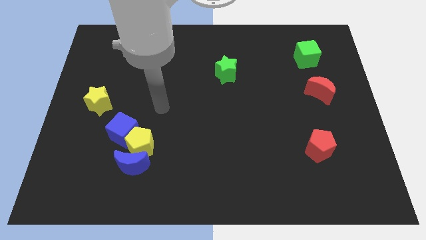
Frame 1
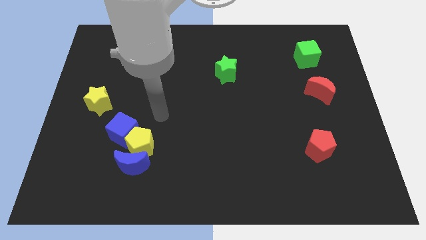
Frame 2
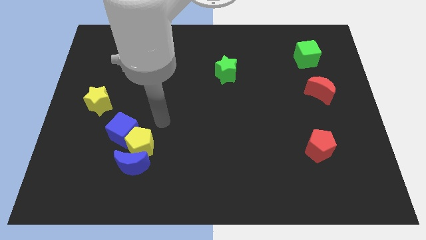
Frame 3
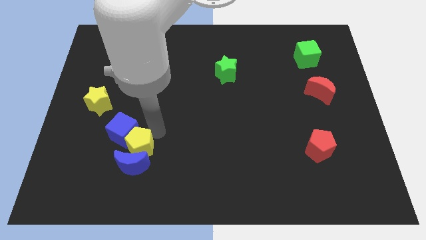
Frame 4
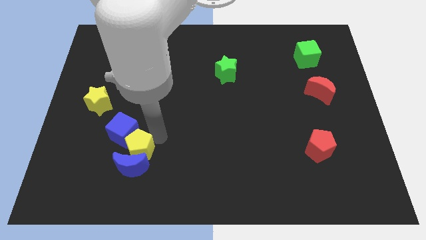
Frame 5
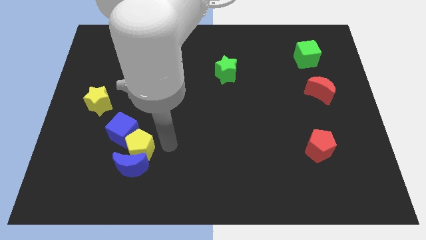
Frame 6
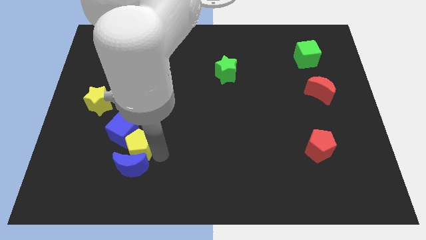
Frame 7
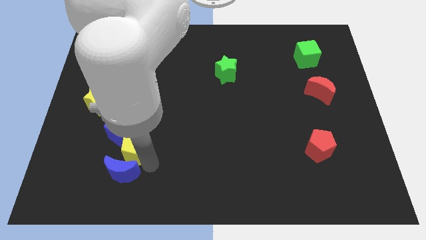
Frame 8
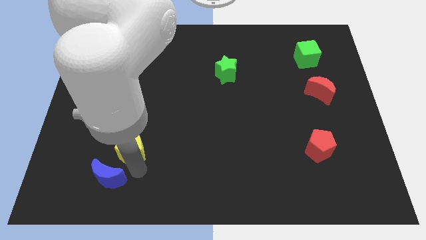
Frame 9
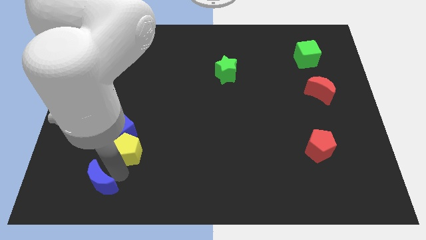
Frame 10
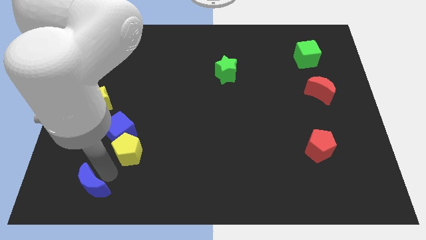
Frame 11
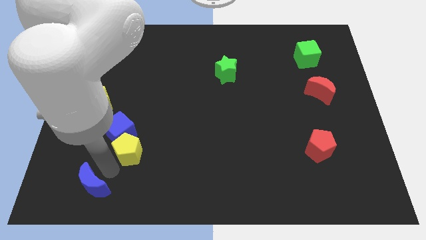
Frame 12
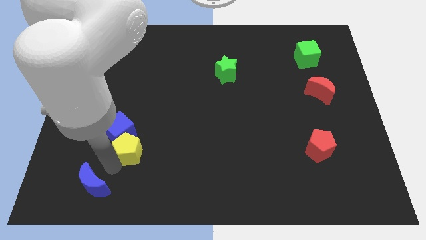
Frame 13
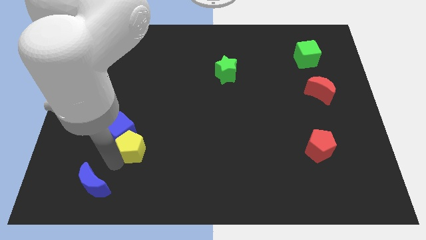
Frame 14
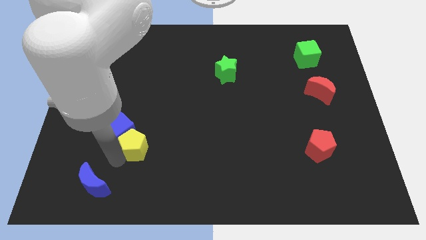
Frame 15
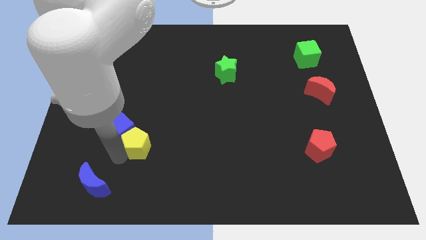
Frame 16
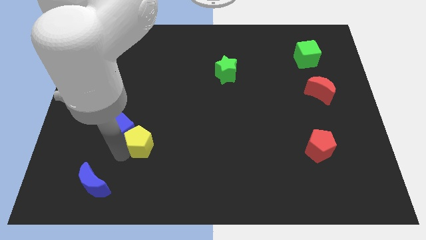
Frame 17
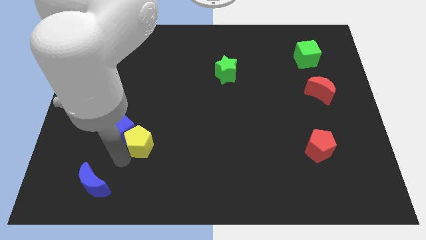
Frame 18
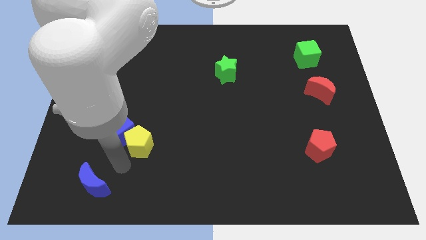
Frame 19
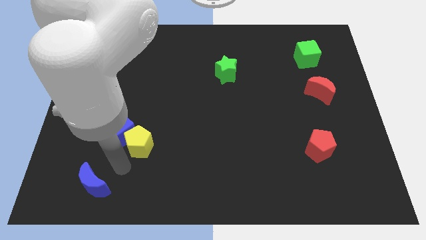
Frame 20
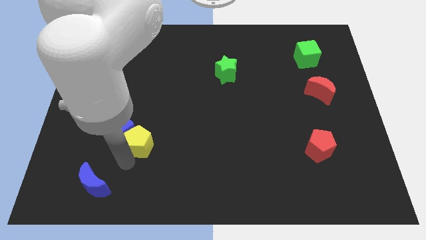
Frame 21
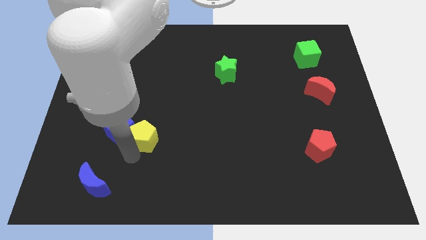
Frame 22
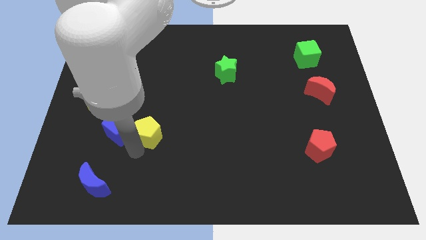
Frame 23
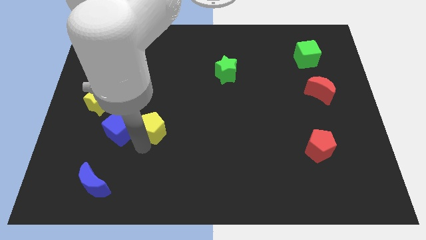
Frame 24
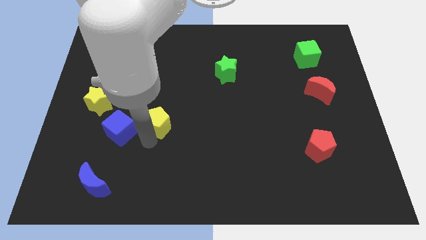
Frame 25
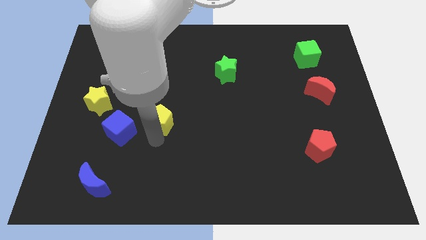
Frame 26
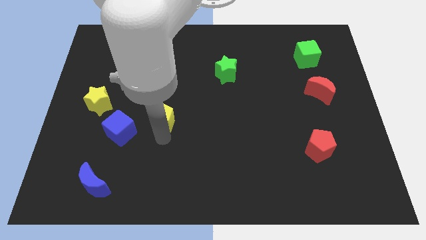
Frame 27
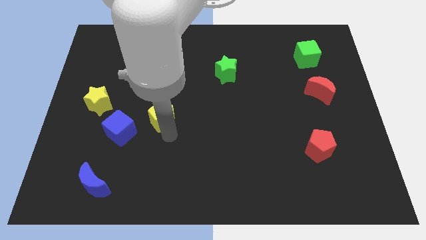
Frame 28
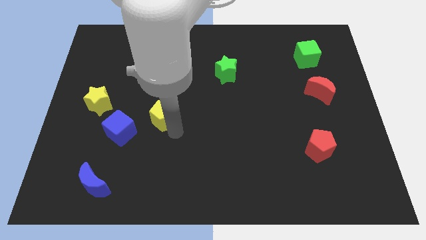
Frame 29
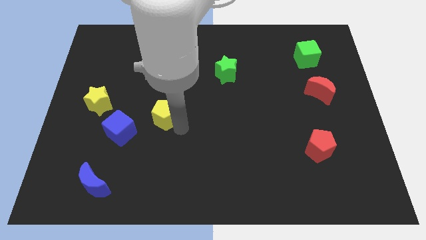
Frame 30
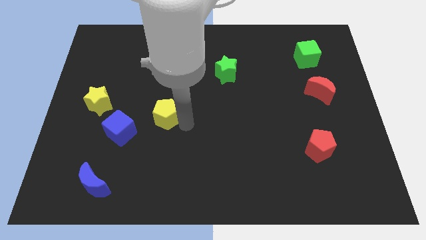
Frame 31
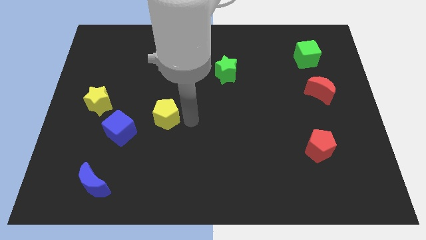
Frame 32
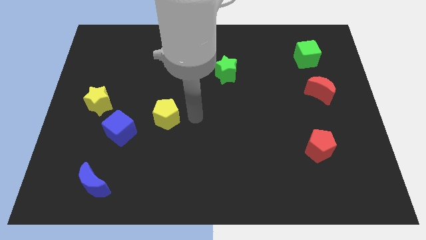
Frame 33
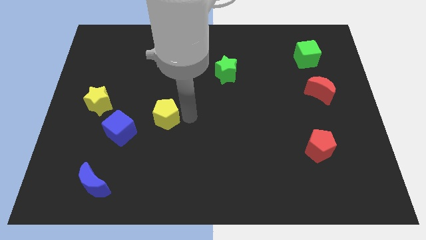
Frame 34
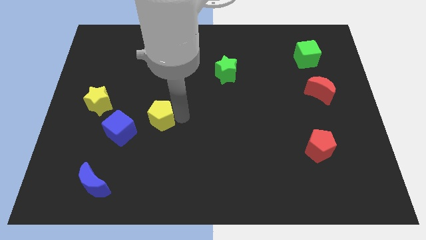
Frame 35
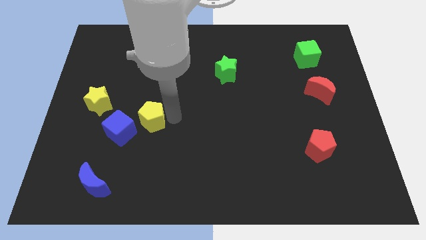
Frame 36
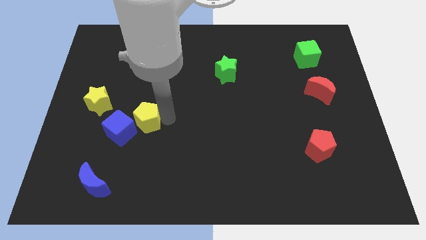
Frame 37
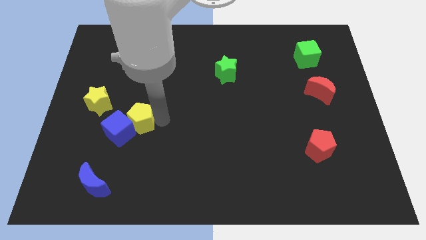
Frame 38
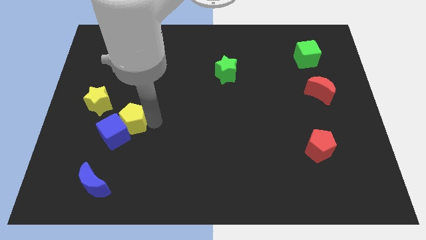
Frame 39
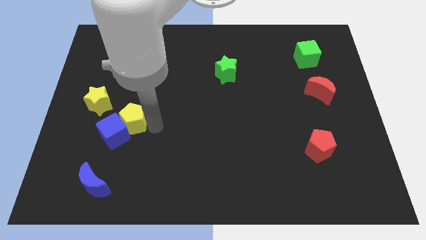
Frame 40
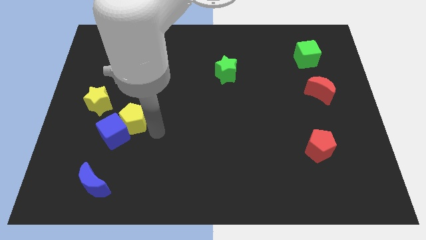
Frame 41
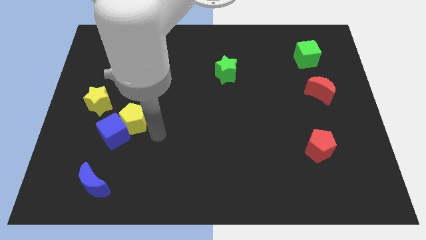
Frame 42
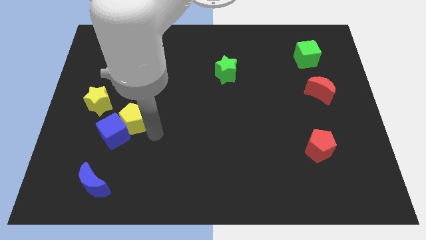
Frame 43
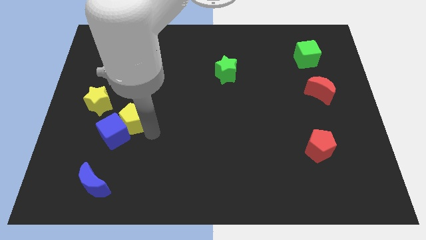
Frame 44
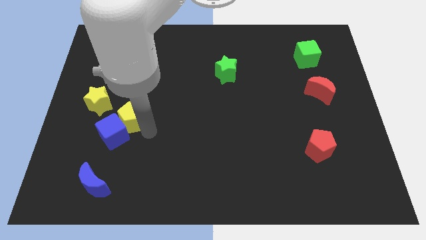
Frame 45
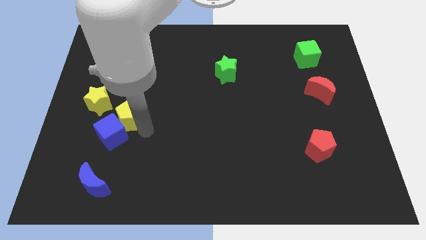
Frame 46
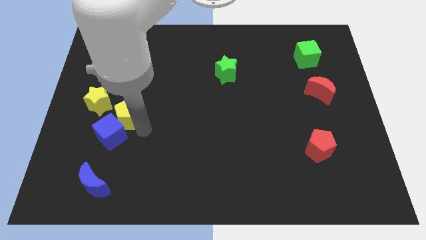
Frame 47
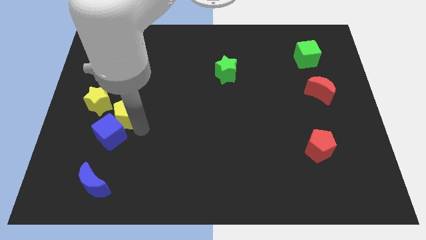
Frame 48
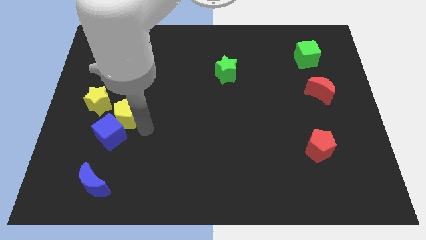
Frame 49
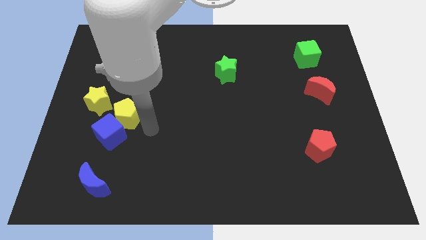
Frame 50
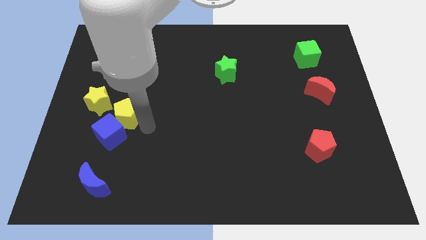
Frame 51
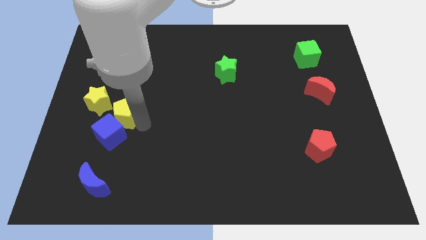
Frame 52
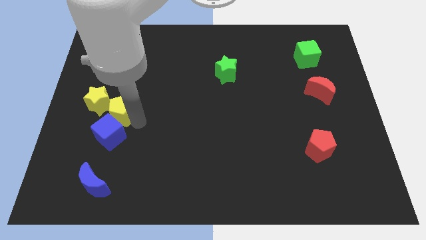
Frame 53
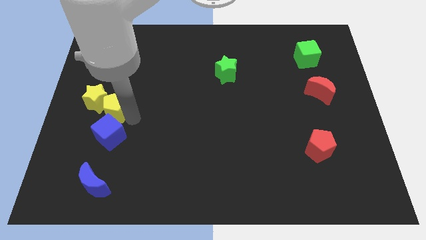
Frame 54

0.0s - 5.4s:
move the yellow pentagon towards the yellow star

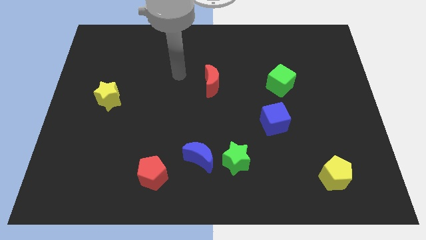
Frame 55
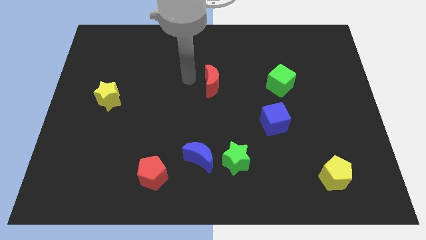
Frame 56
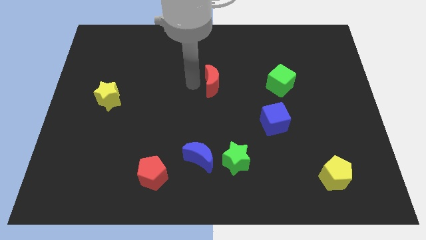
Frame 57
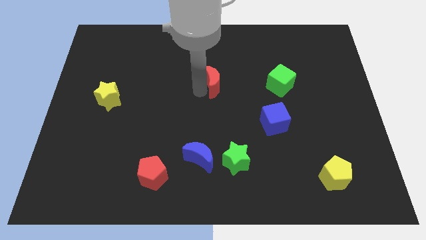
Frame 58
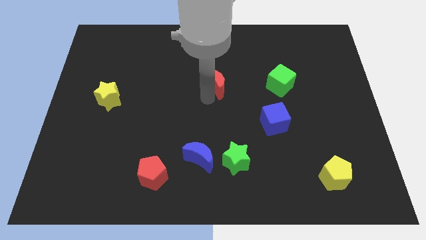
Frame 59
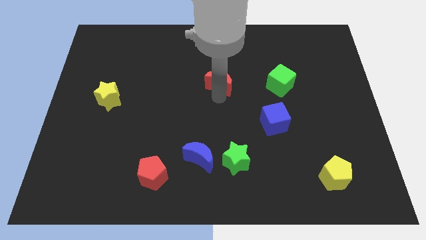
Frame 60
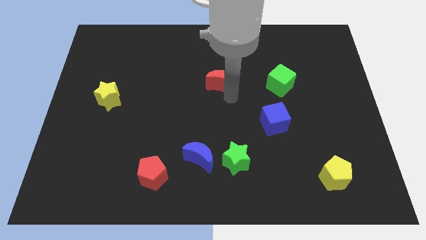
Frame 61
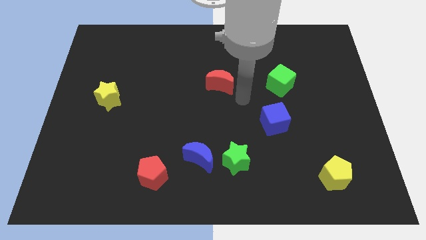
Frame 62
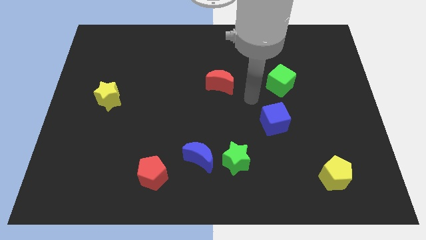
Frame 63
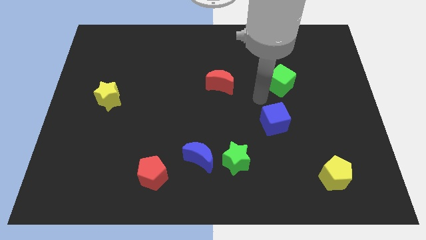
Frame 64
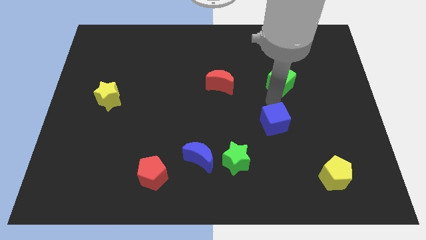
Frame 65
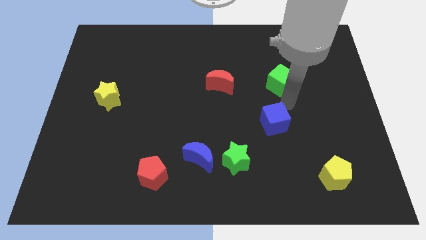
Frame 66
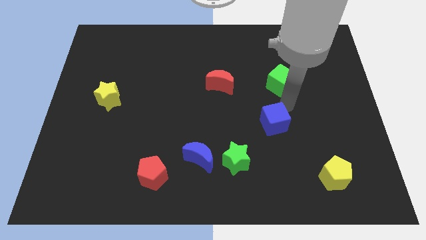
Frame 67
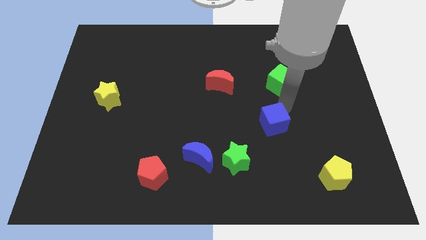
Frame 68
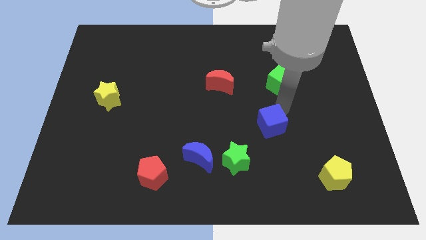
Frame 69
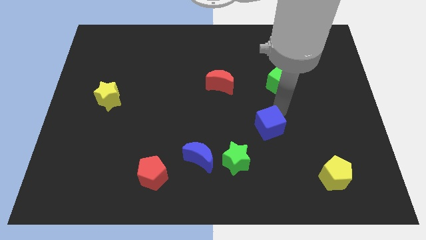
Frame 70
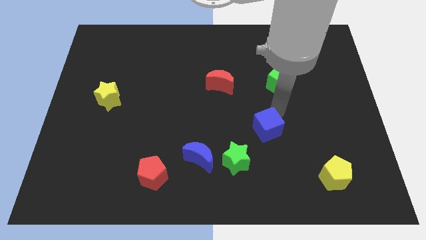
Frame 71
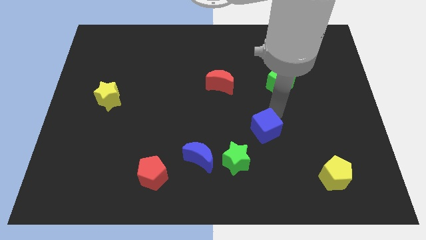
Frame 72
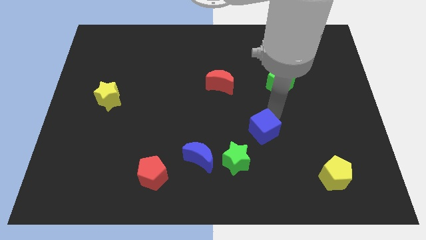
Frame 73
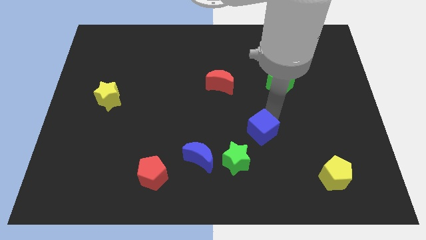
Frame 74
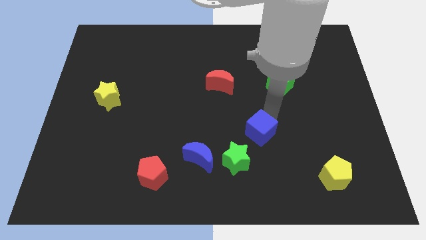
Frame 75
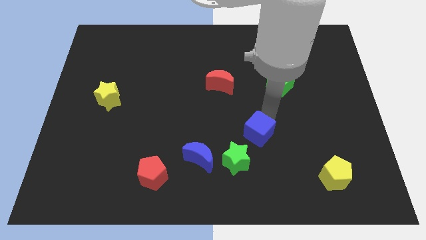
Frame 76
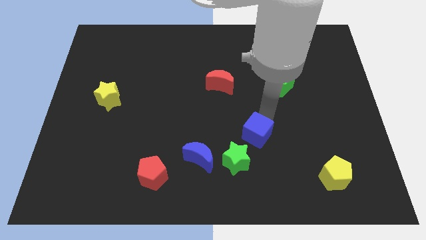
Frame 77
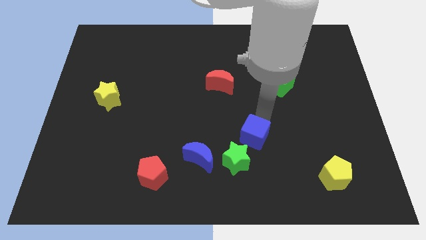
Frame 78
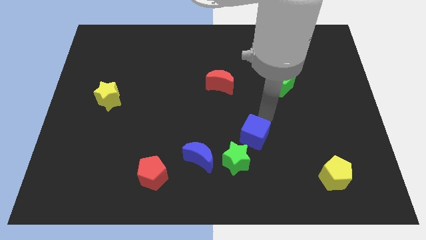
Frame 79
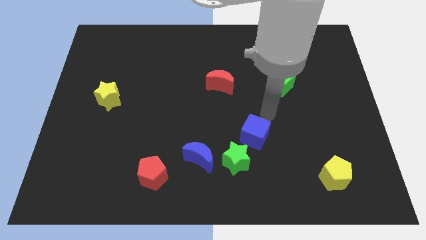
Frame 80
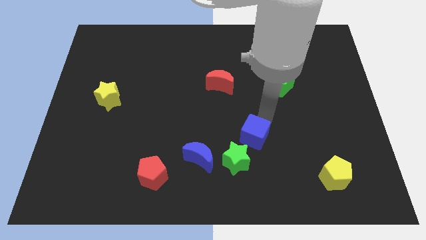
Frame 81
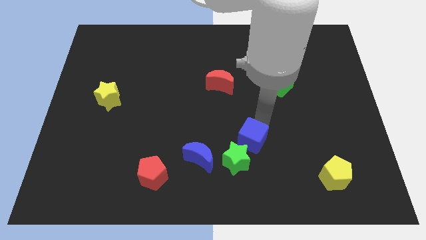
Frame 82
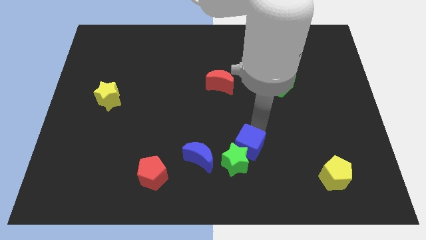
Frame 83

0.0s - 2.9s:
move the blue cube towards the green star
